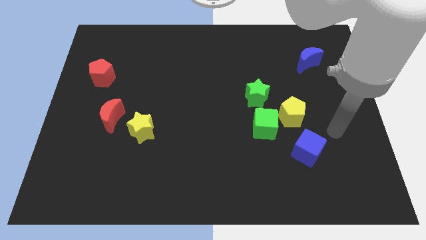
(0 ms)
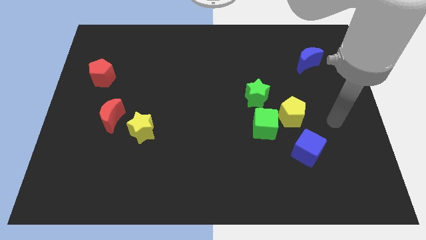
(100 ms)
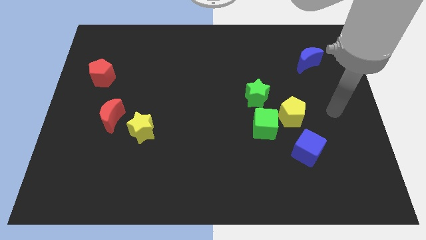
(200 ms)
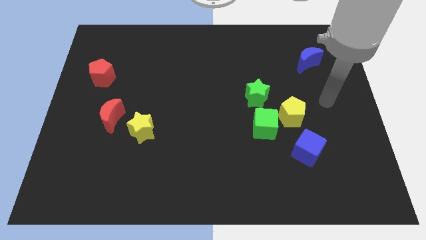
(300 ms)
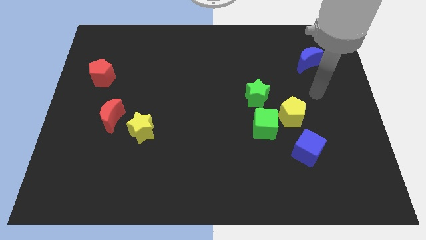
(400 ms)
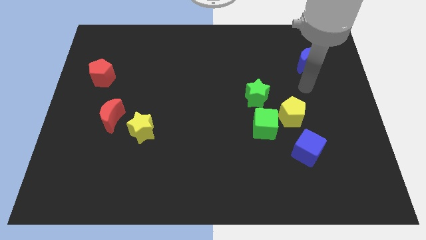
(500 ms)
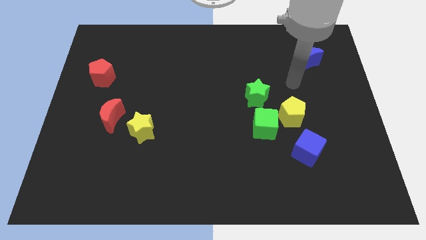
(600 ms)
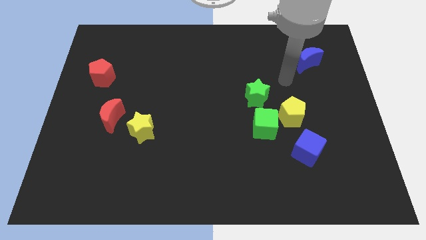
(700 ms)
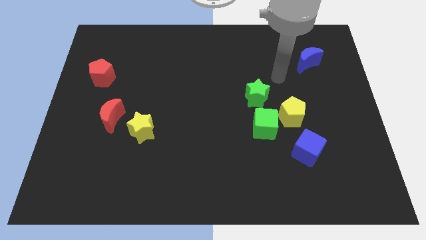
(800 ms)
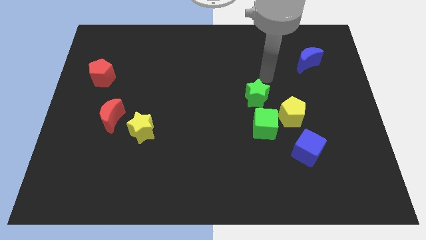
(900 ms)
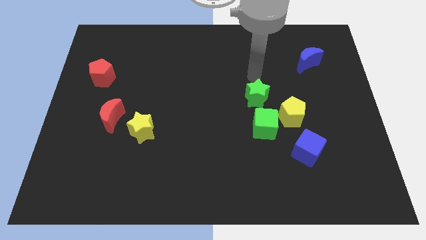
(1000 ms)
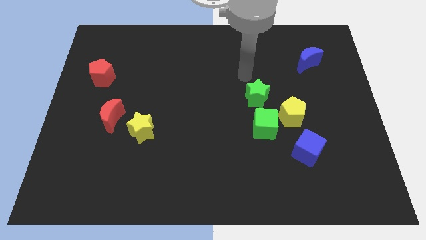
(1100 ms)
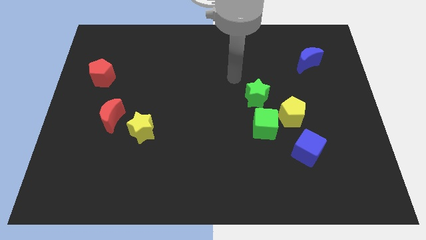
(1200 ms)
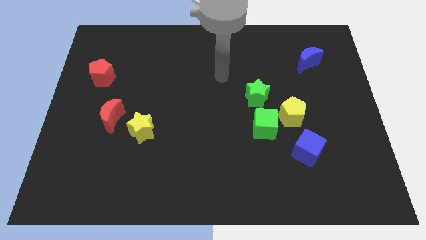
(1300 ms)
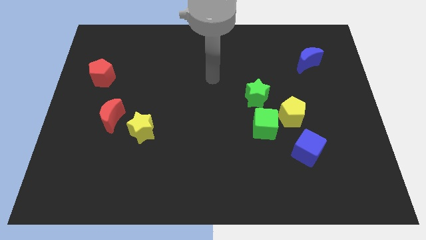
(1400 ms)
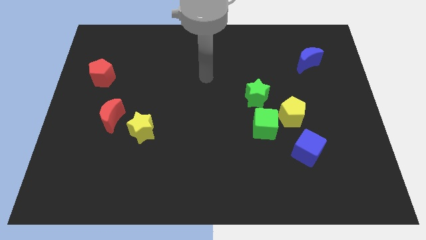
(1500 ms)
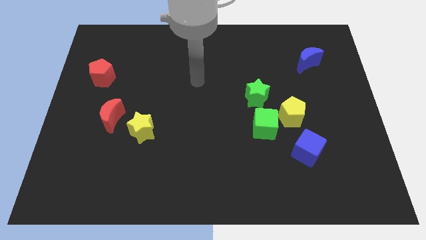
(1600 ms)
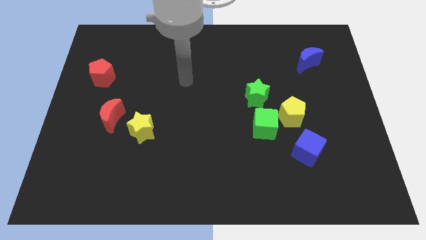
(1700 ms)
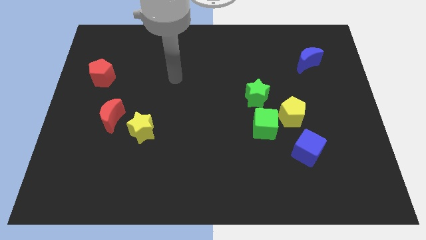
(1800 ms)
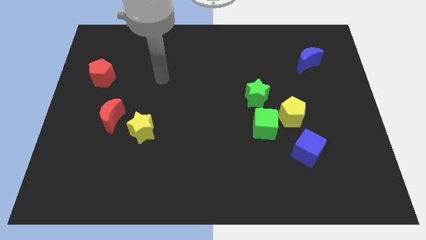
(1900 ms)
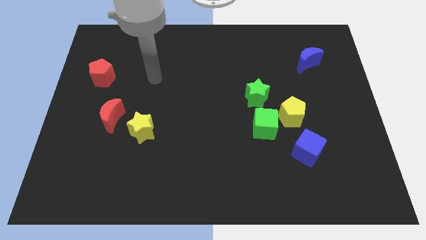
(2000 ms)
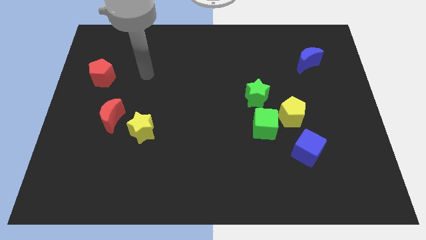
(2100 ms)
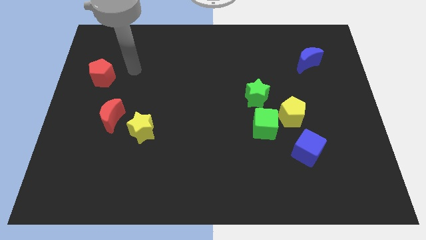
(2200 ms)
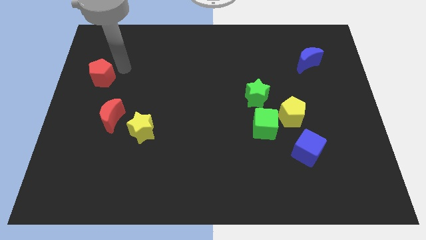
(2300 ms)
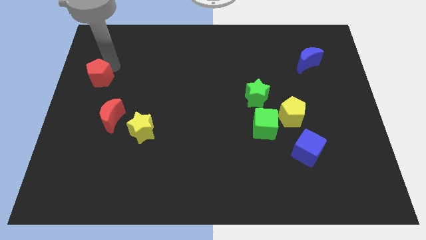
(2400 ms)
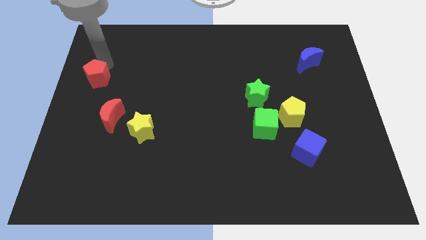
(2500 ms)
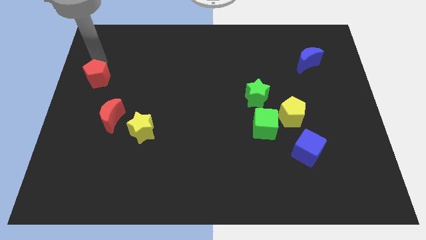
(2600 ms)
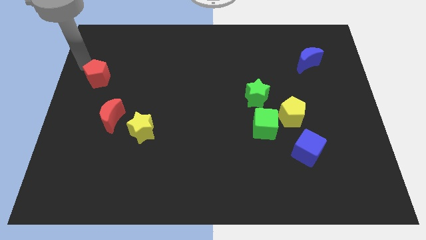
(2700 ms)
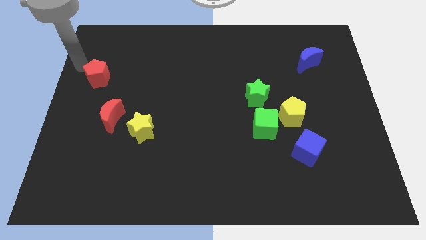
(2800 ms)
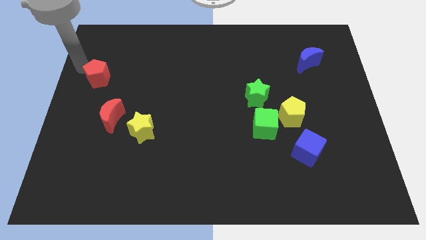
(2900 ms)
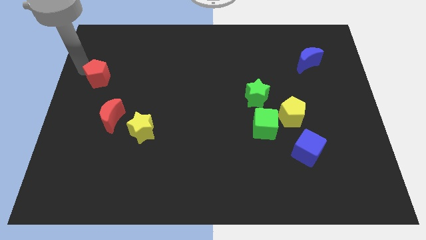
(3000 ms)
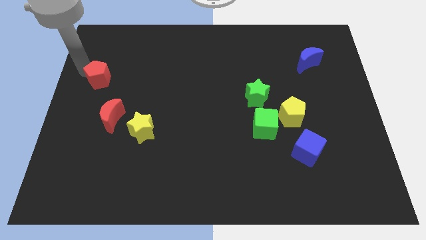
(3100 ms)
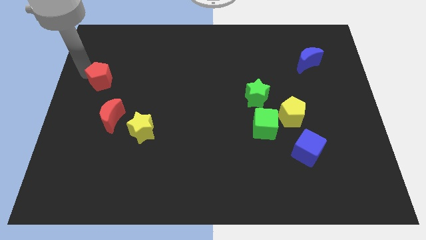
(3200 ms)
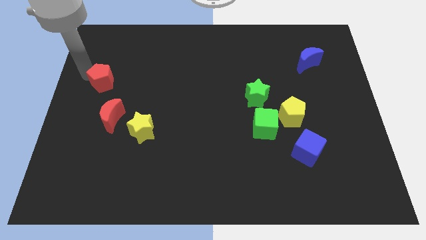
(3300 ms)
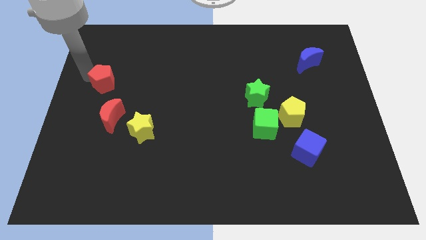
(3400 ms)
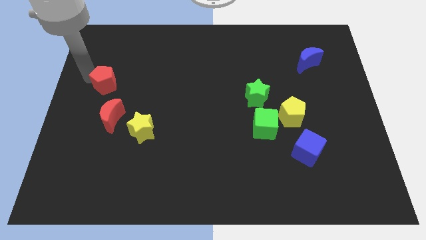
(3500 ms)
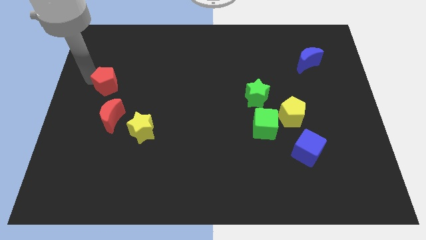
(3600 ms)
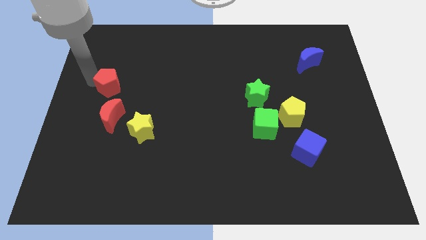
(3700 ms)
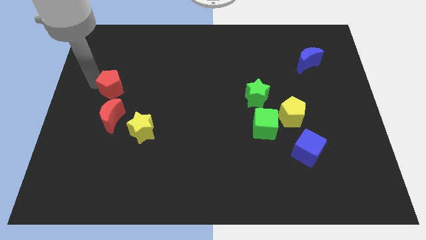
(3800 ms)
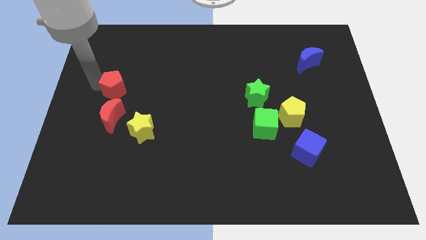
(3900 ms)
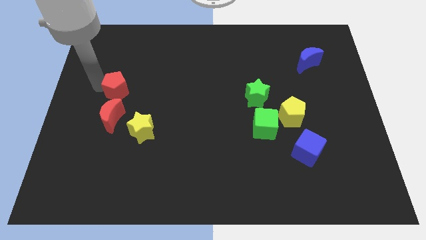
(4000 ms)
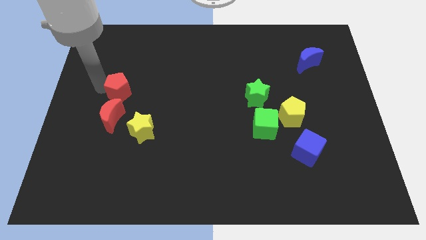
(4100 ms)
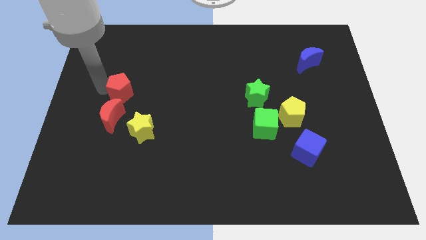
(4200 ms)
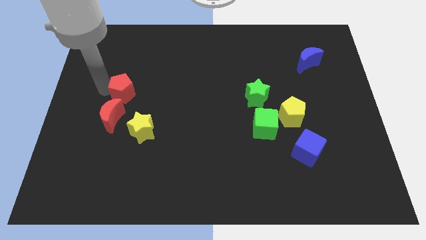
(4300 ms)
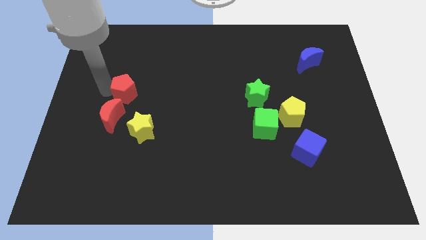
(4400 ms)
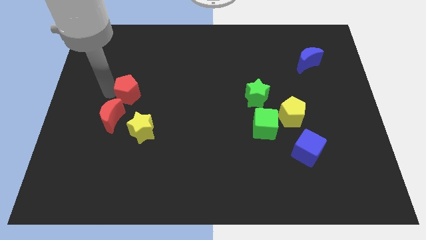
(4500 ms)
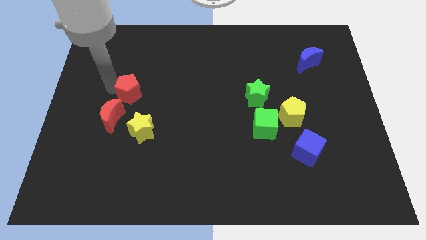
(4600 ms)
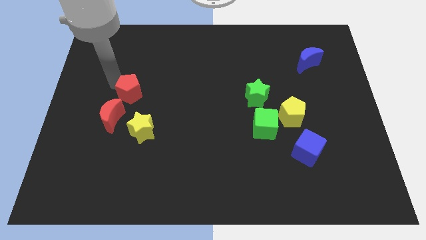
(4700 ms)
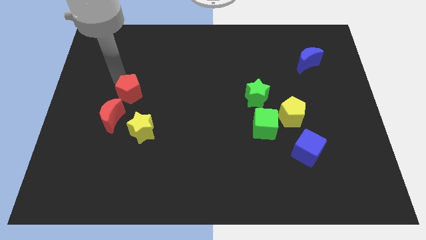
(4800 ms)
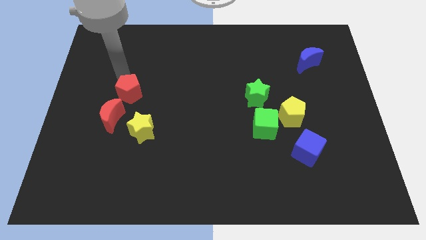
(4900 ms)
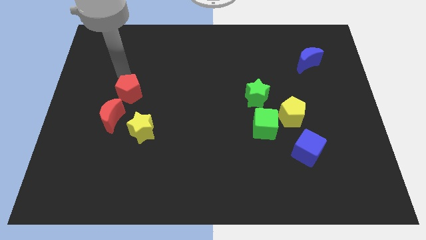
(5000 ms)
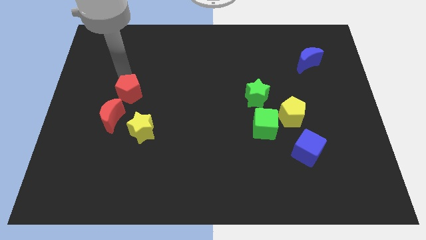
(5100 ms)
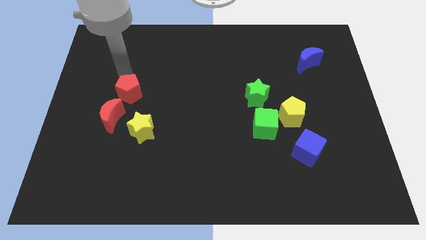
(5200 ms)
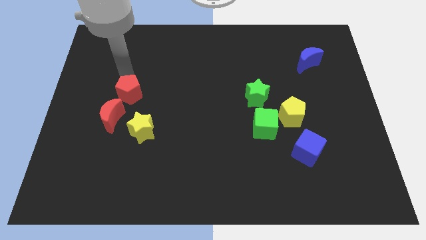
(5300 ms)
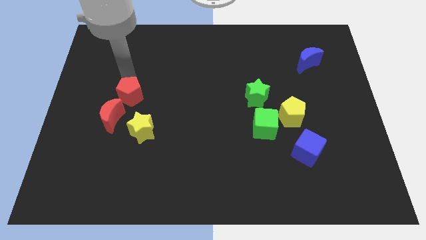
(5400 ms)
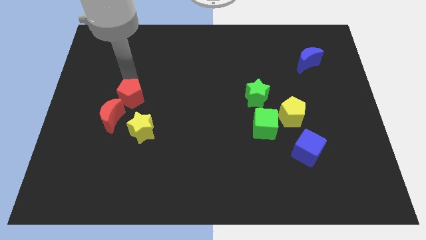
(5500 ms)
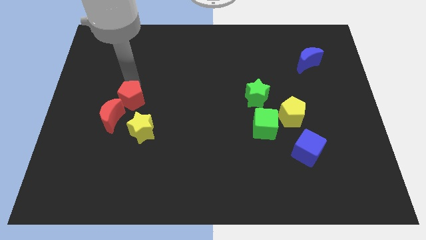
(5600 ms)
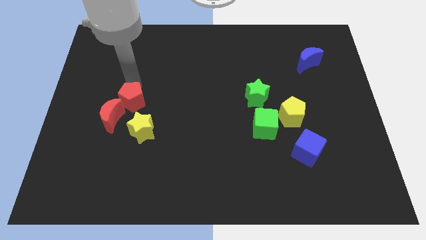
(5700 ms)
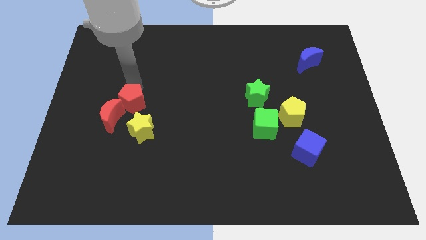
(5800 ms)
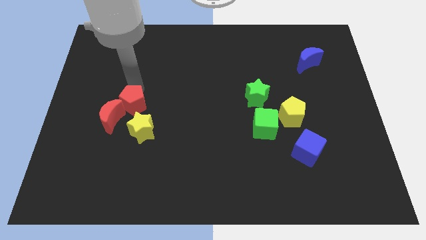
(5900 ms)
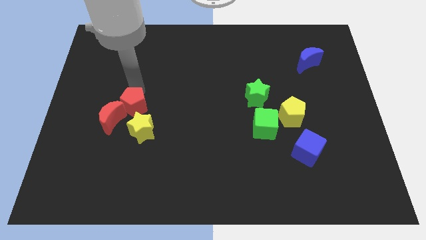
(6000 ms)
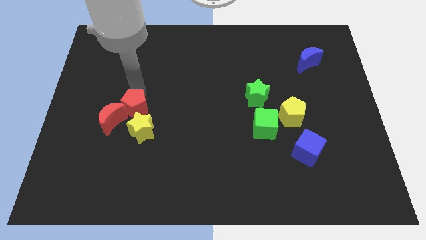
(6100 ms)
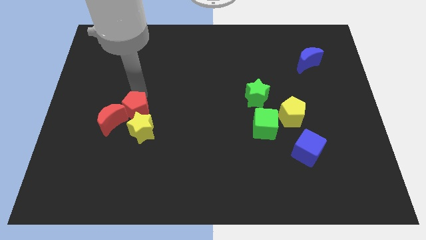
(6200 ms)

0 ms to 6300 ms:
put the red pentagon close to the yellow star

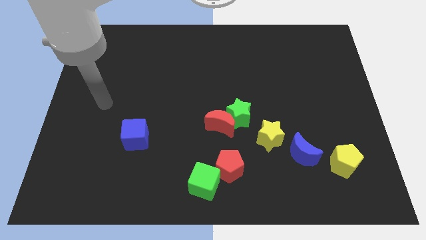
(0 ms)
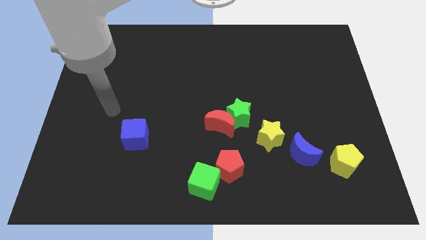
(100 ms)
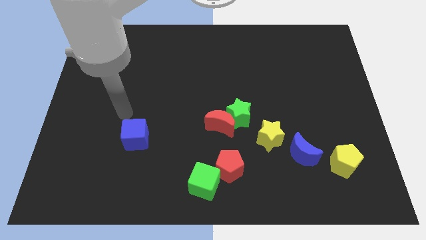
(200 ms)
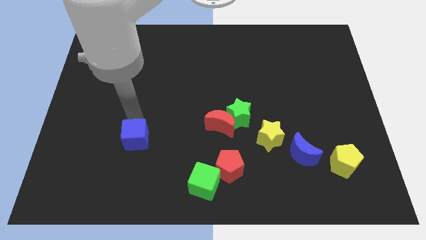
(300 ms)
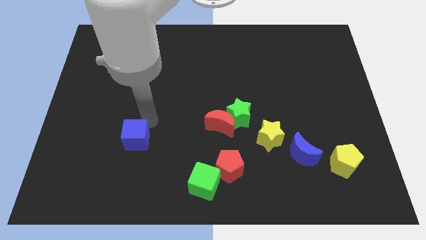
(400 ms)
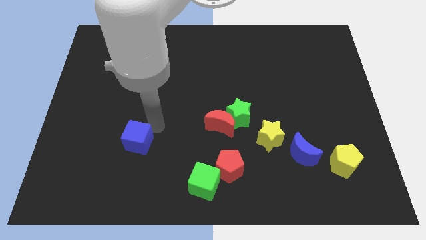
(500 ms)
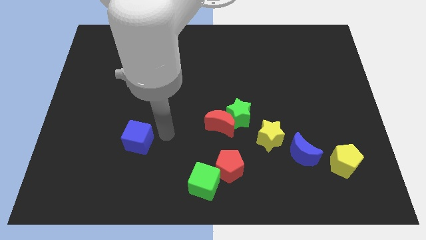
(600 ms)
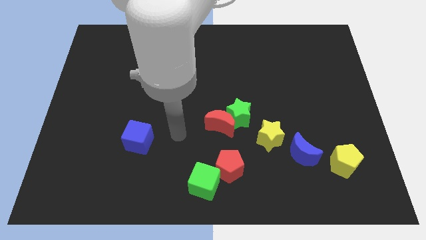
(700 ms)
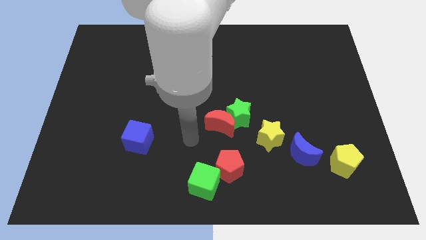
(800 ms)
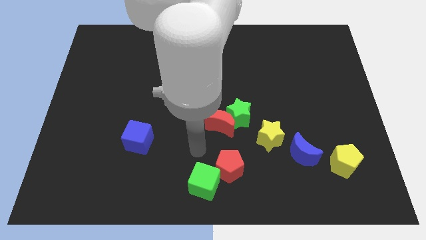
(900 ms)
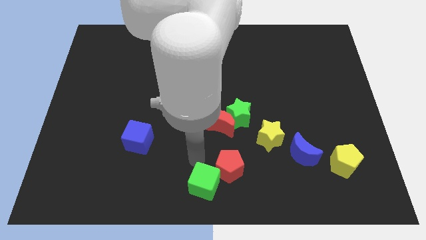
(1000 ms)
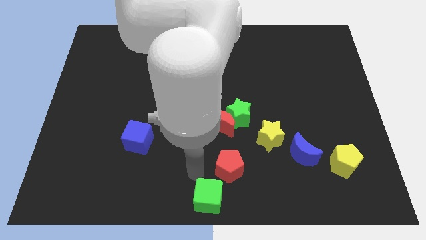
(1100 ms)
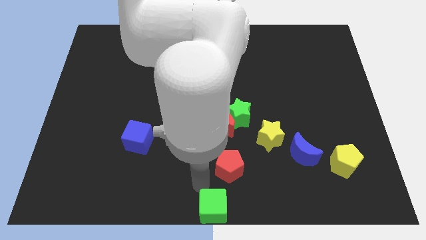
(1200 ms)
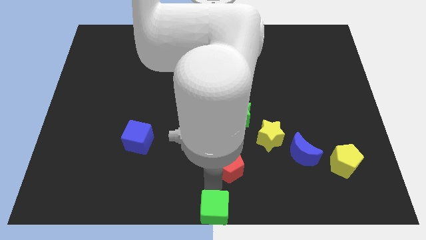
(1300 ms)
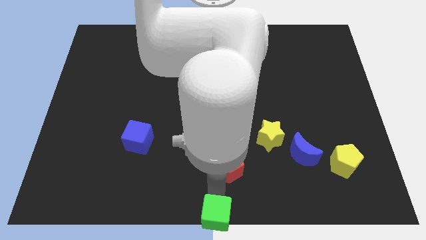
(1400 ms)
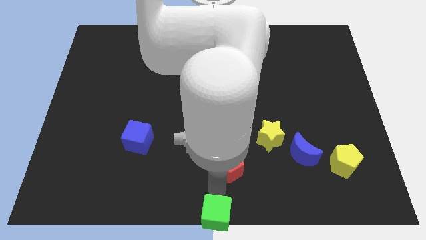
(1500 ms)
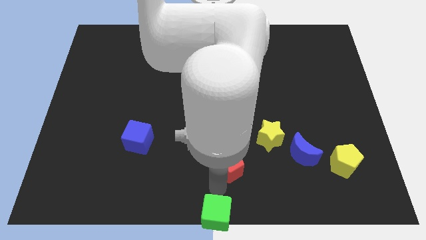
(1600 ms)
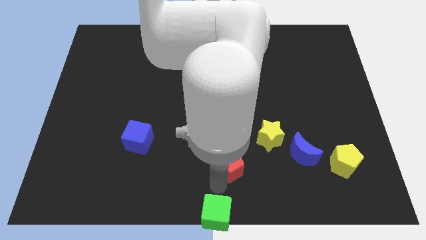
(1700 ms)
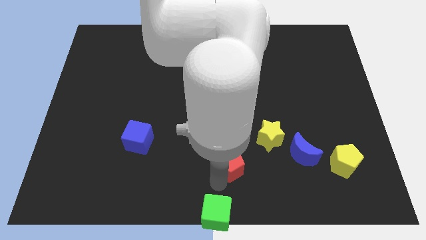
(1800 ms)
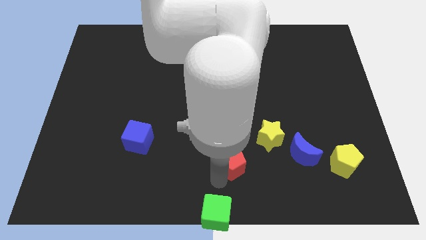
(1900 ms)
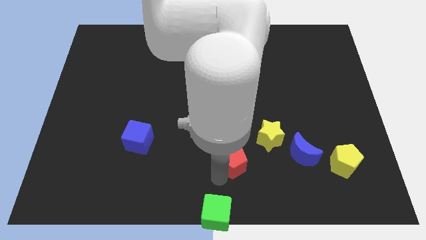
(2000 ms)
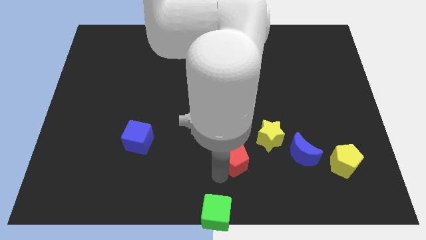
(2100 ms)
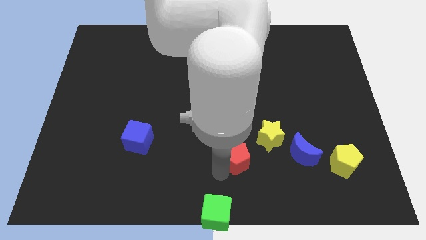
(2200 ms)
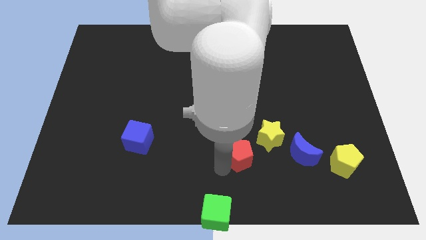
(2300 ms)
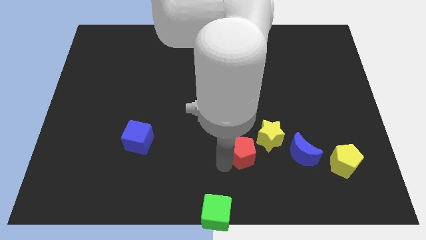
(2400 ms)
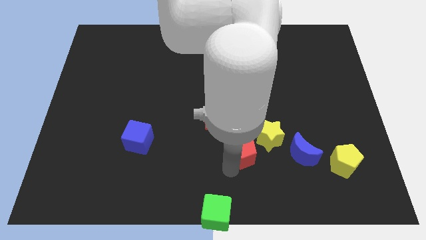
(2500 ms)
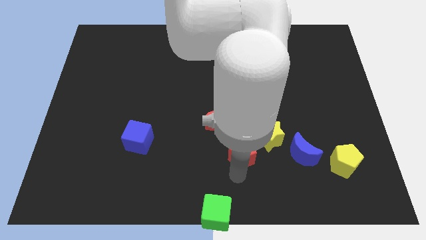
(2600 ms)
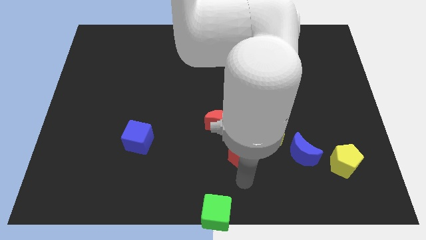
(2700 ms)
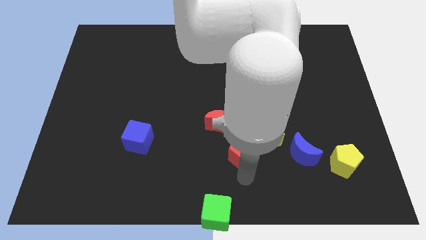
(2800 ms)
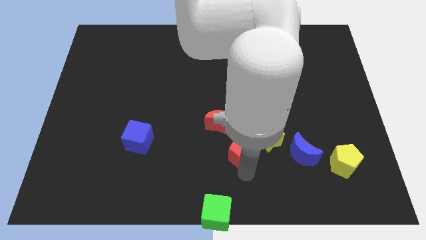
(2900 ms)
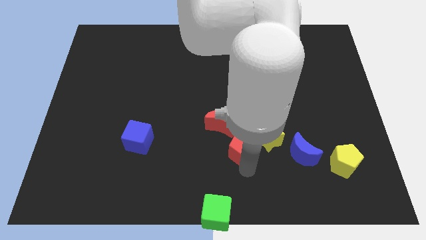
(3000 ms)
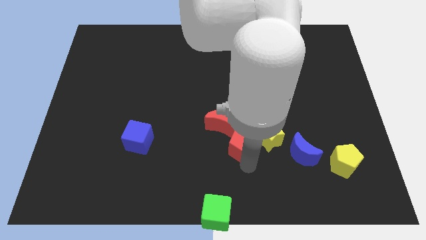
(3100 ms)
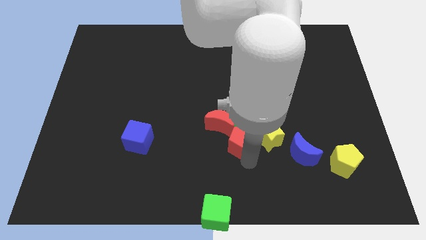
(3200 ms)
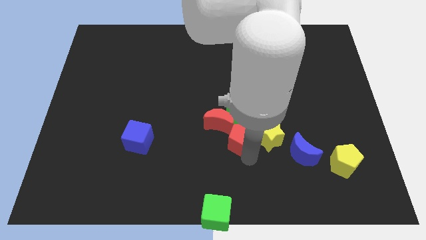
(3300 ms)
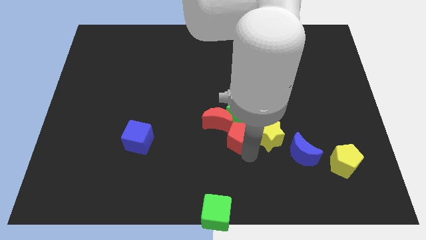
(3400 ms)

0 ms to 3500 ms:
slide the red pentagon next to the green star
